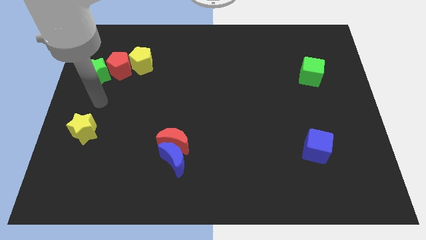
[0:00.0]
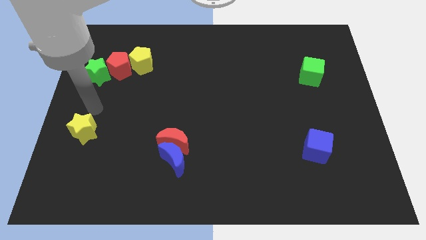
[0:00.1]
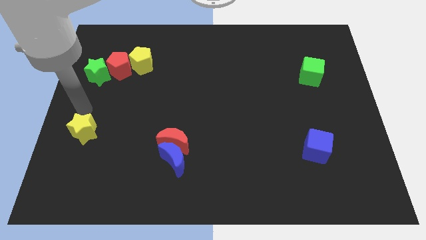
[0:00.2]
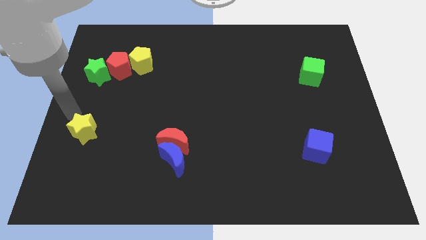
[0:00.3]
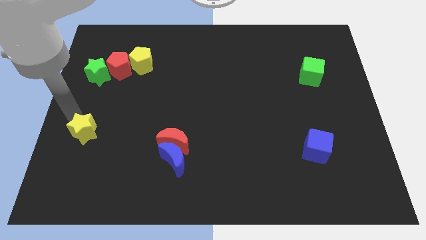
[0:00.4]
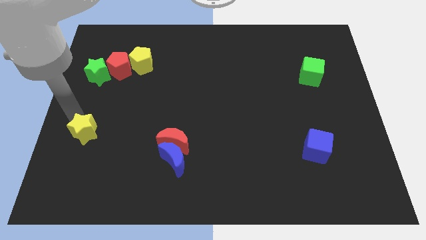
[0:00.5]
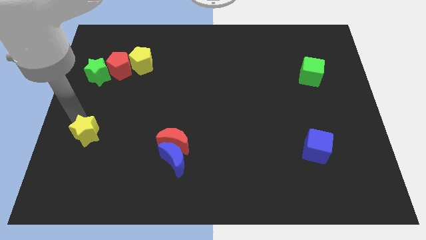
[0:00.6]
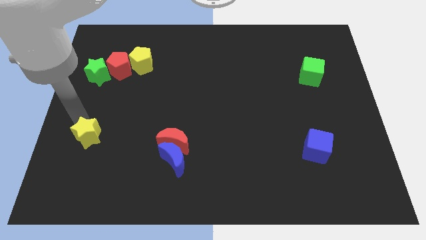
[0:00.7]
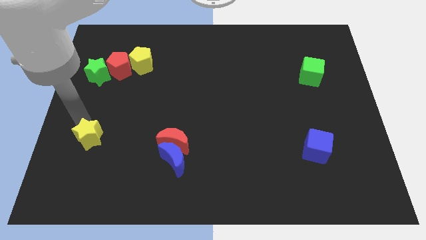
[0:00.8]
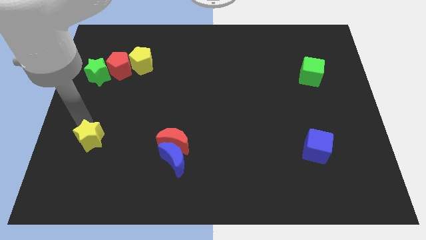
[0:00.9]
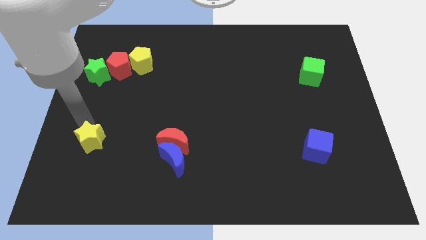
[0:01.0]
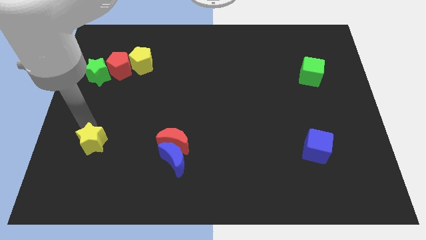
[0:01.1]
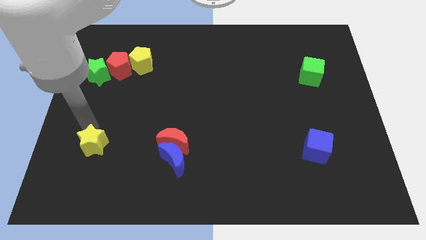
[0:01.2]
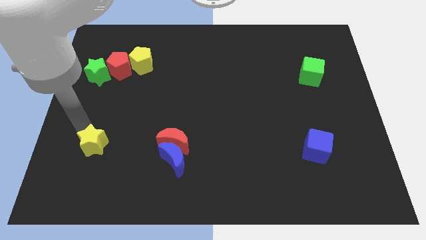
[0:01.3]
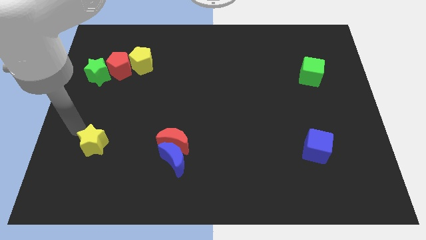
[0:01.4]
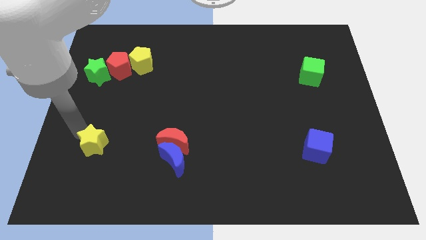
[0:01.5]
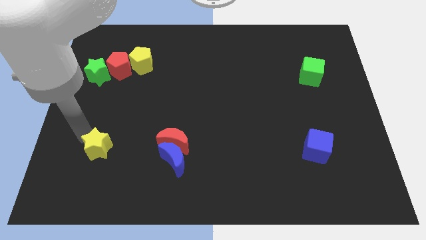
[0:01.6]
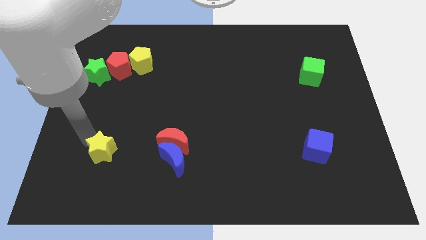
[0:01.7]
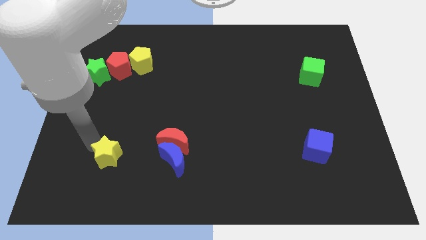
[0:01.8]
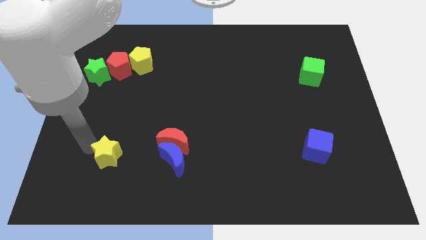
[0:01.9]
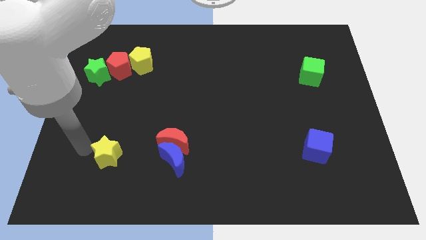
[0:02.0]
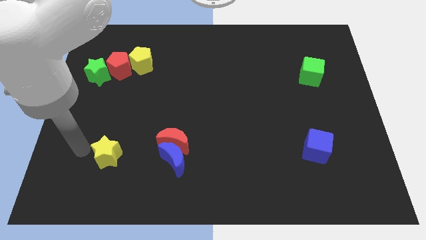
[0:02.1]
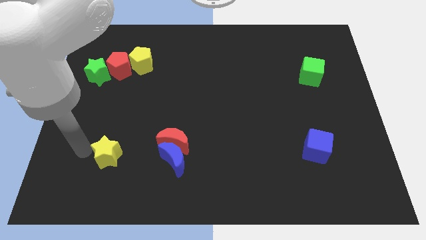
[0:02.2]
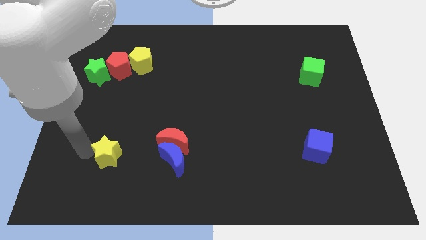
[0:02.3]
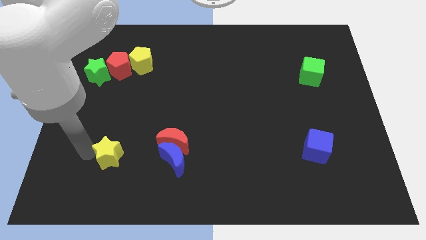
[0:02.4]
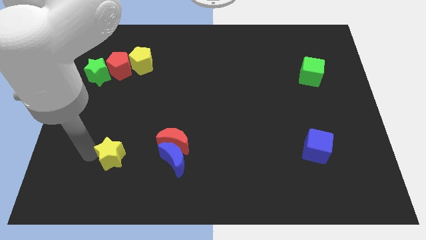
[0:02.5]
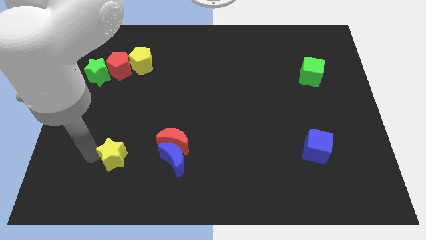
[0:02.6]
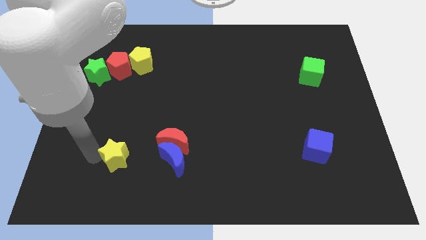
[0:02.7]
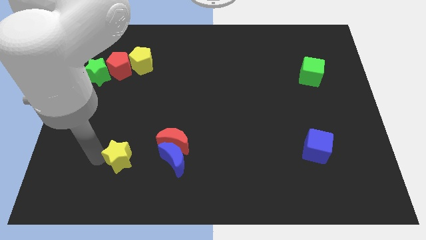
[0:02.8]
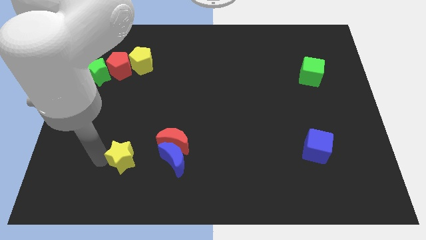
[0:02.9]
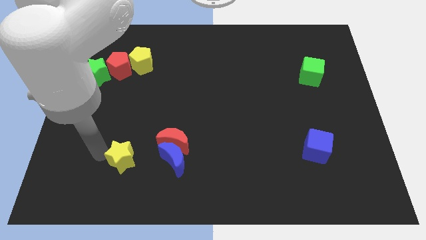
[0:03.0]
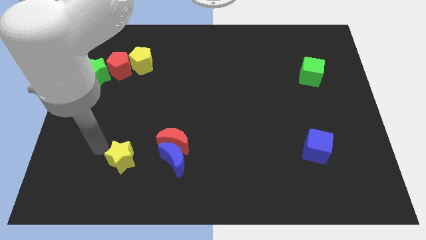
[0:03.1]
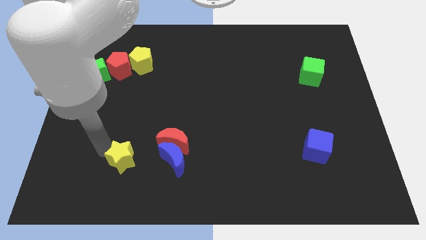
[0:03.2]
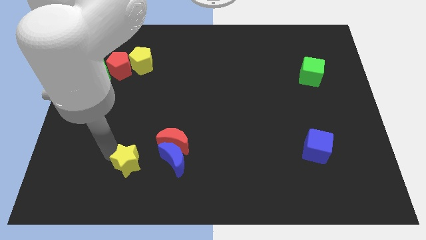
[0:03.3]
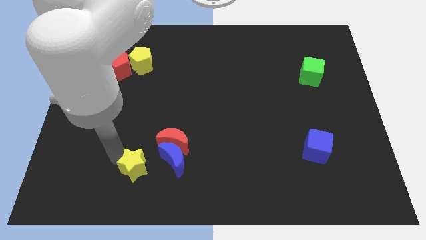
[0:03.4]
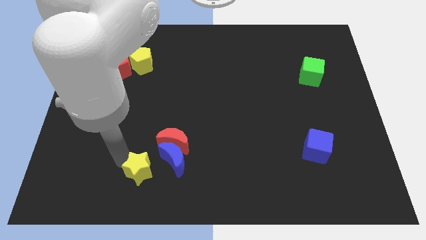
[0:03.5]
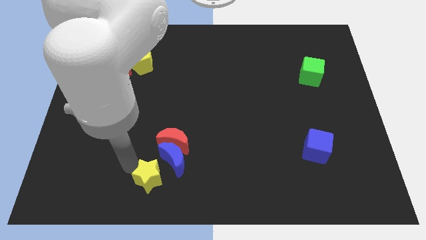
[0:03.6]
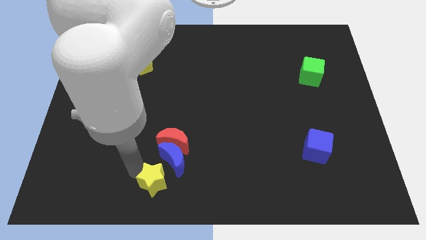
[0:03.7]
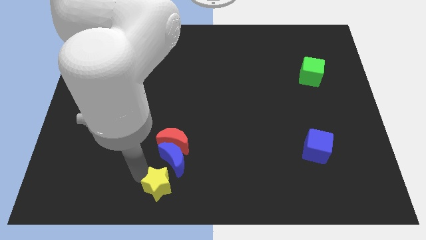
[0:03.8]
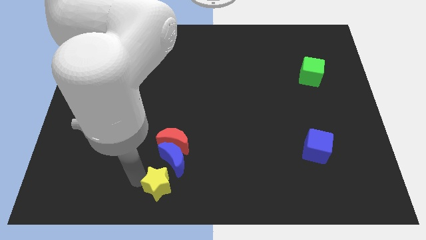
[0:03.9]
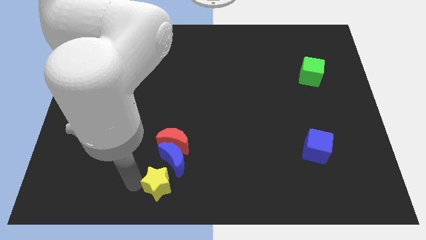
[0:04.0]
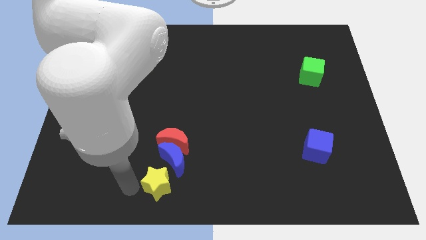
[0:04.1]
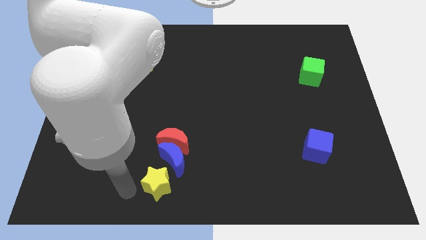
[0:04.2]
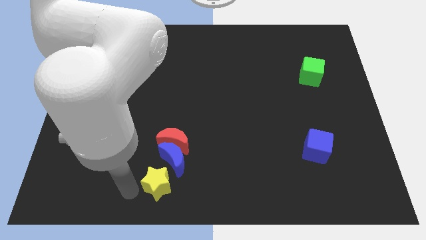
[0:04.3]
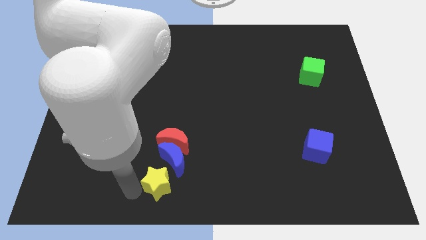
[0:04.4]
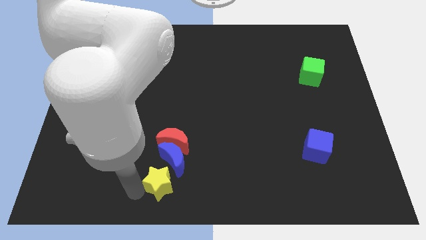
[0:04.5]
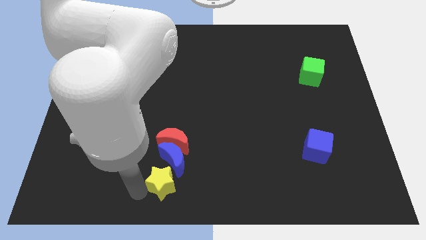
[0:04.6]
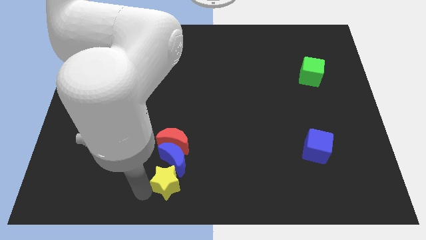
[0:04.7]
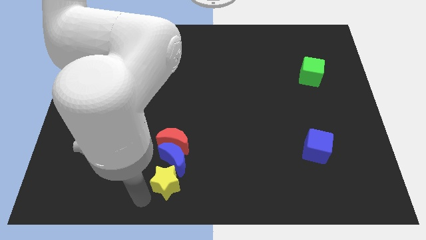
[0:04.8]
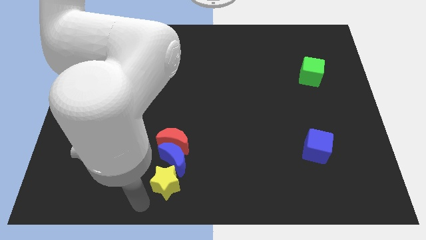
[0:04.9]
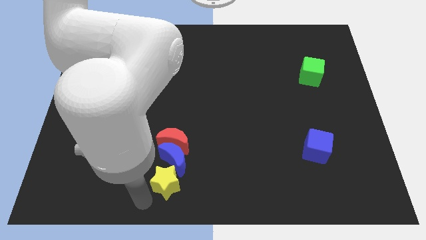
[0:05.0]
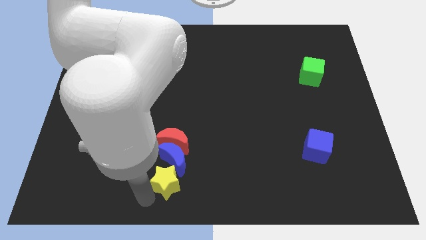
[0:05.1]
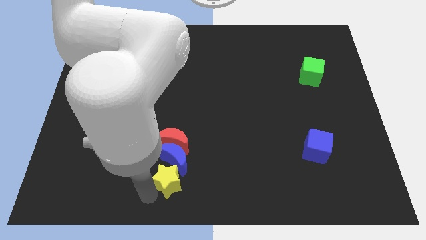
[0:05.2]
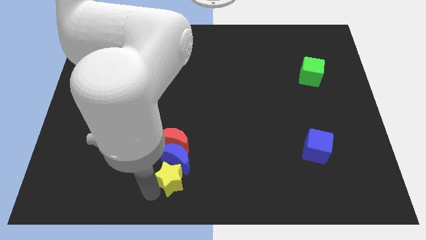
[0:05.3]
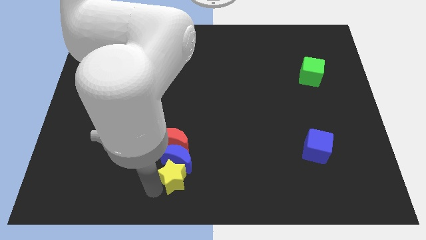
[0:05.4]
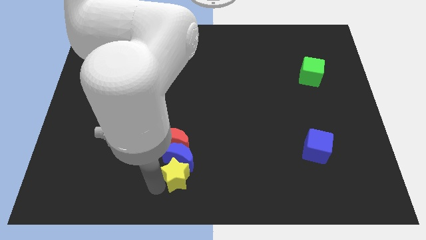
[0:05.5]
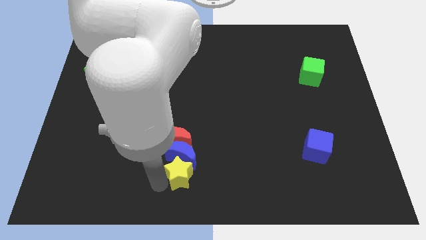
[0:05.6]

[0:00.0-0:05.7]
slide the yellow star to the bottom right side of the red moon

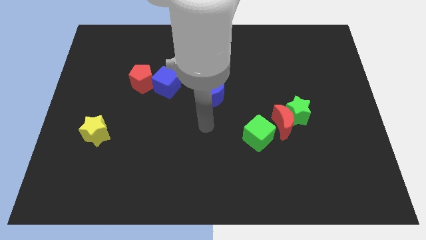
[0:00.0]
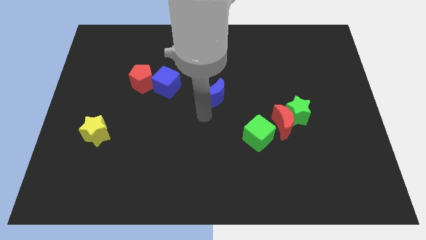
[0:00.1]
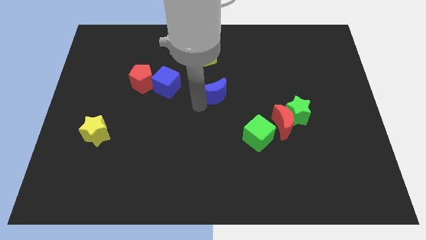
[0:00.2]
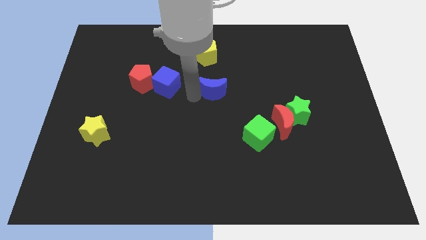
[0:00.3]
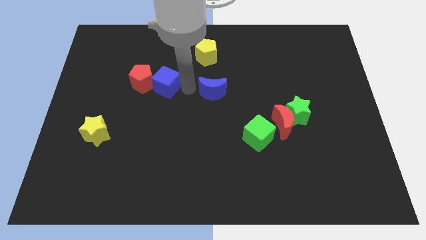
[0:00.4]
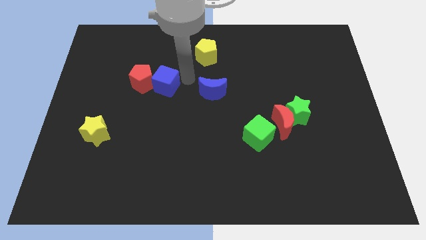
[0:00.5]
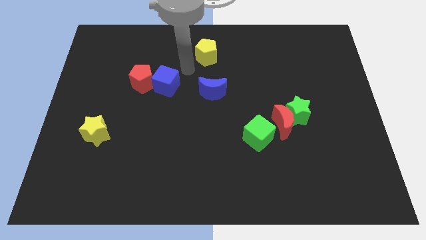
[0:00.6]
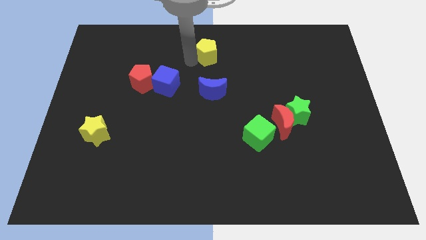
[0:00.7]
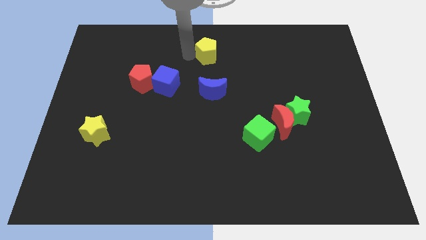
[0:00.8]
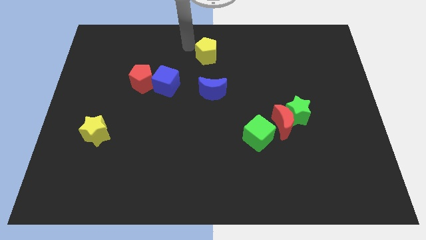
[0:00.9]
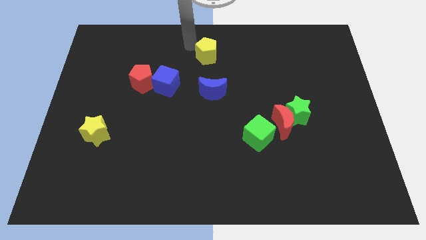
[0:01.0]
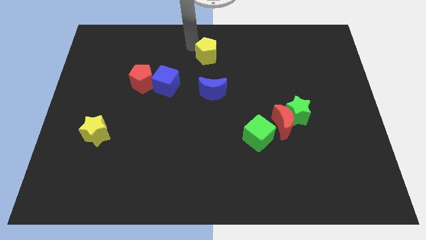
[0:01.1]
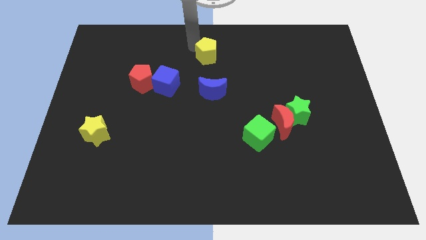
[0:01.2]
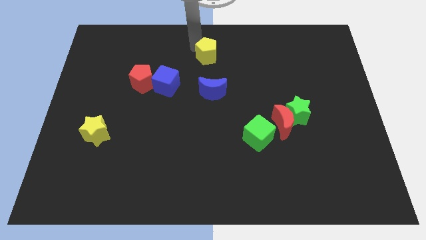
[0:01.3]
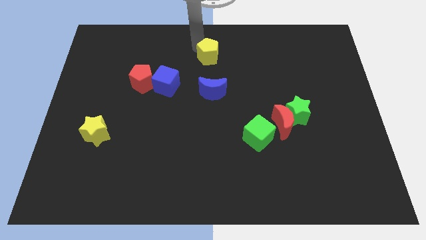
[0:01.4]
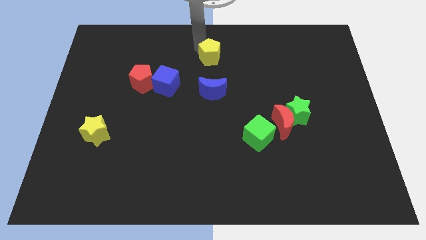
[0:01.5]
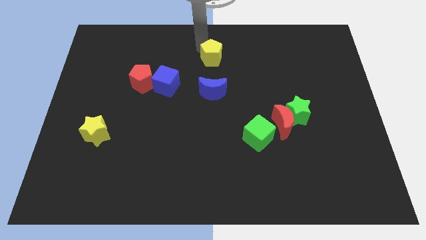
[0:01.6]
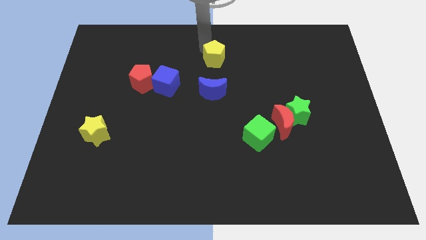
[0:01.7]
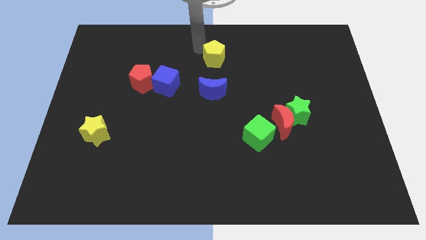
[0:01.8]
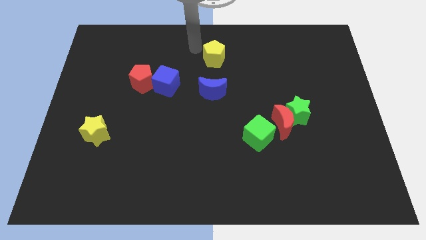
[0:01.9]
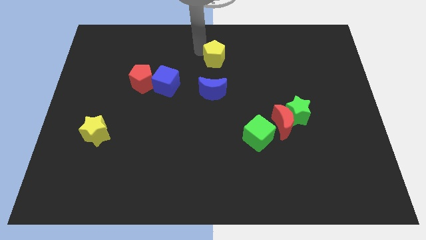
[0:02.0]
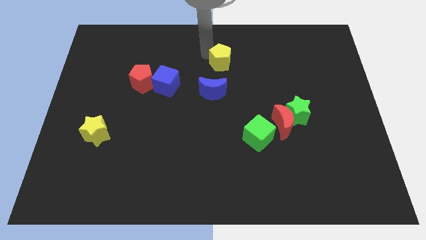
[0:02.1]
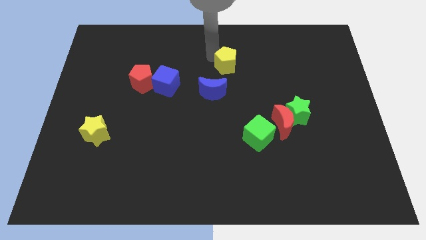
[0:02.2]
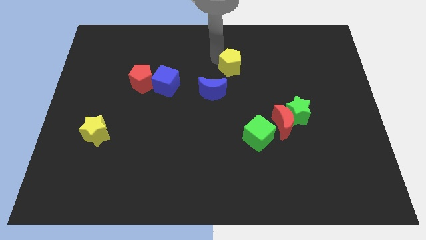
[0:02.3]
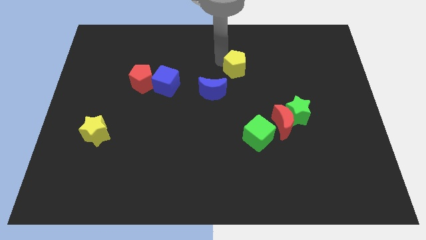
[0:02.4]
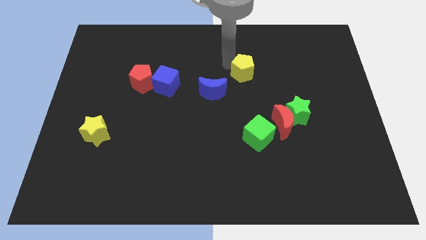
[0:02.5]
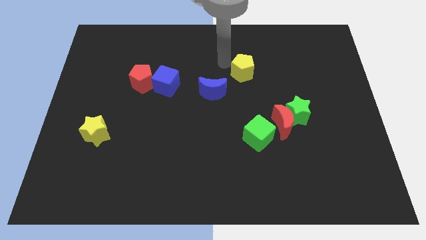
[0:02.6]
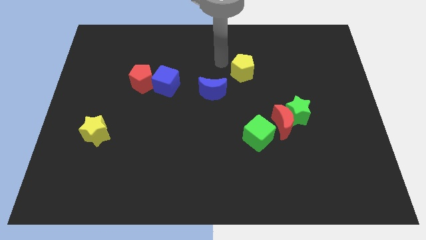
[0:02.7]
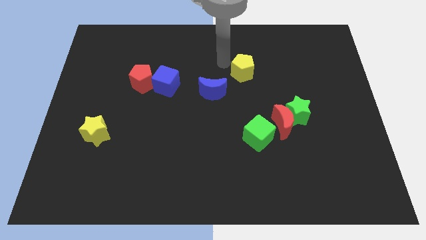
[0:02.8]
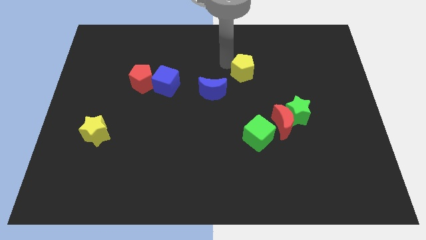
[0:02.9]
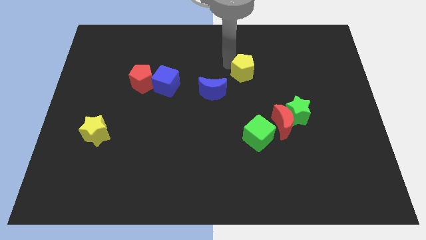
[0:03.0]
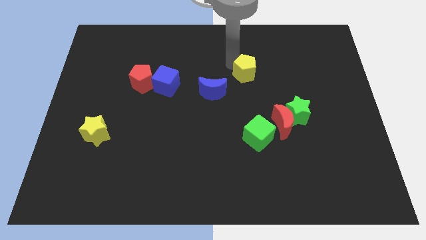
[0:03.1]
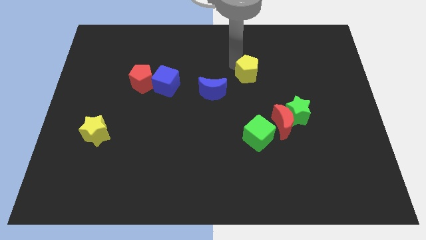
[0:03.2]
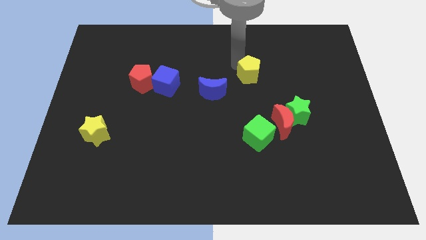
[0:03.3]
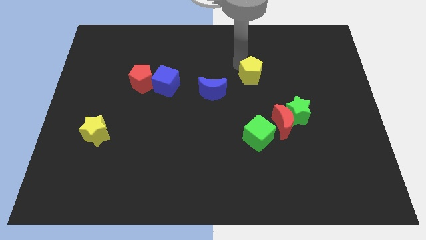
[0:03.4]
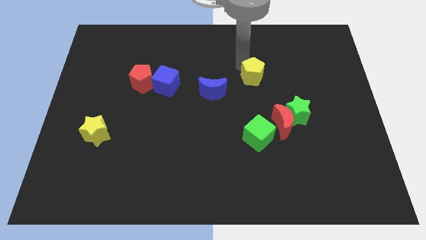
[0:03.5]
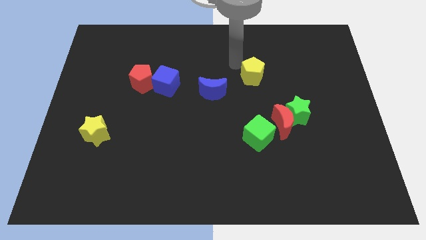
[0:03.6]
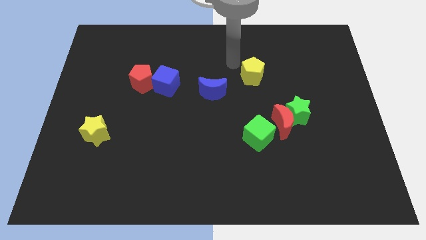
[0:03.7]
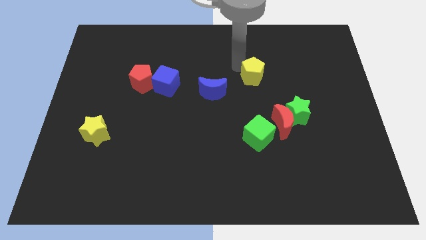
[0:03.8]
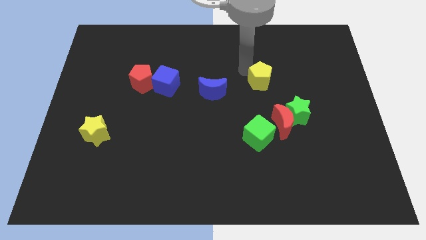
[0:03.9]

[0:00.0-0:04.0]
push the yellow pentagon to the top of the red moon
